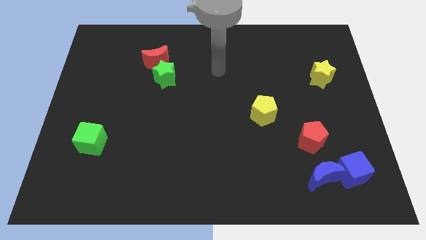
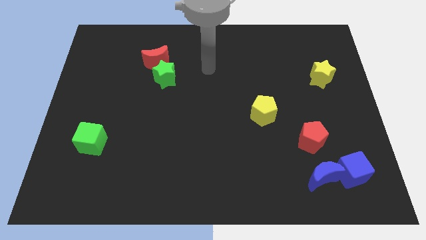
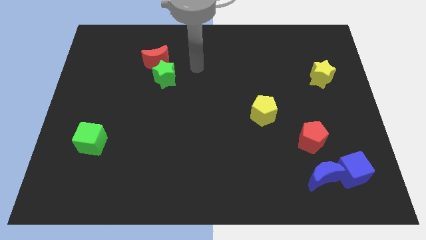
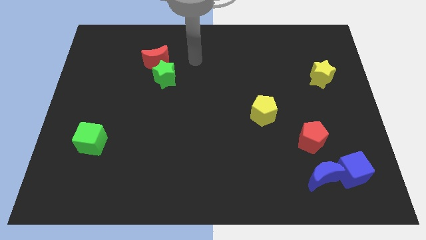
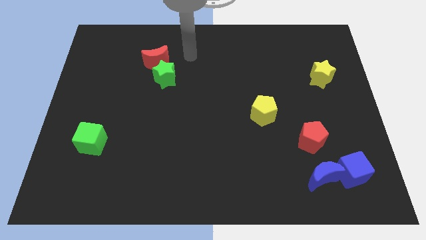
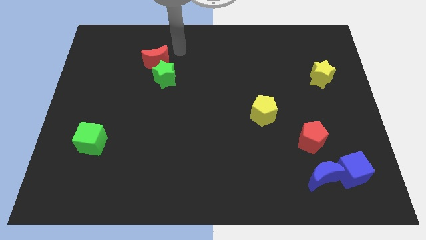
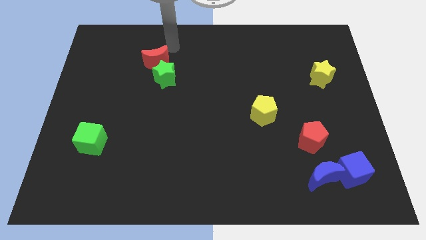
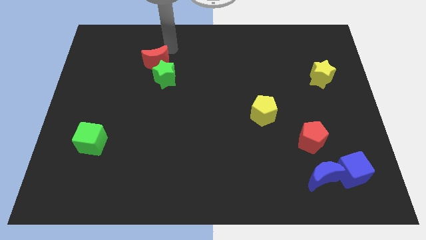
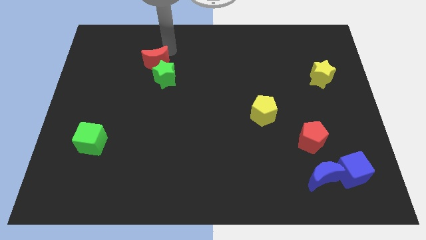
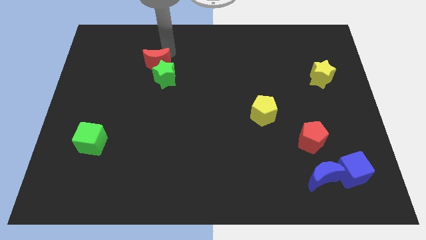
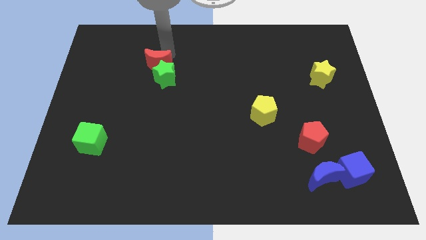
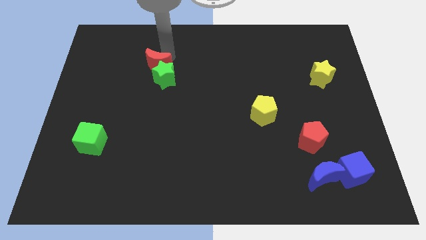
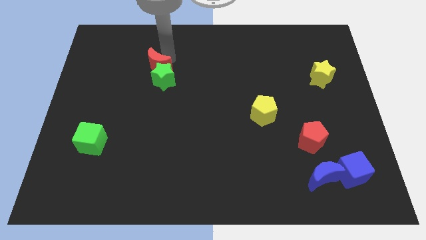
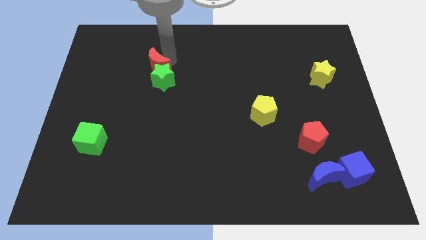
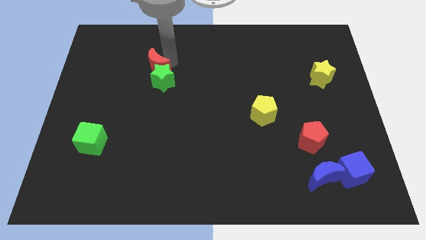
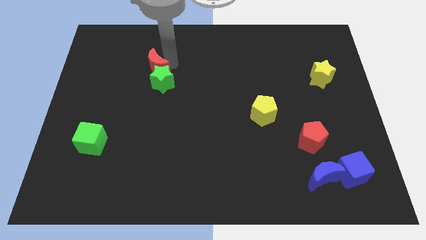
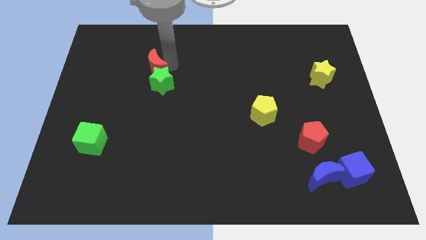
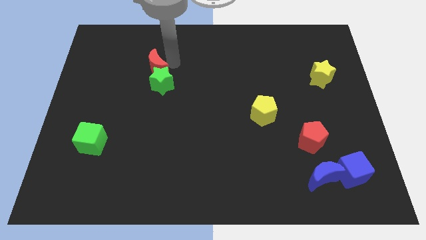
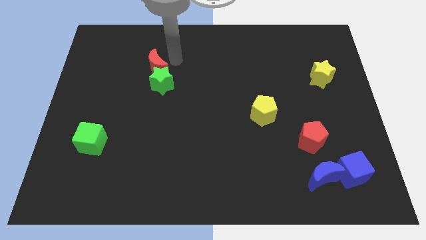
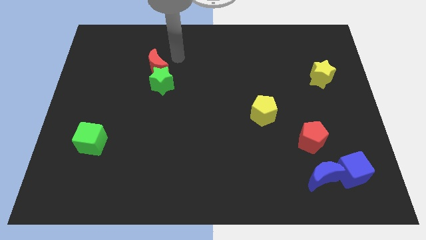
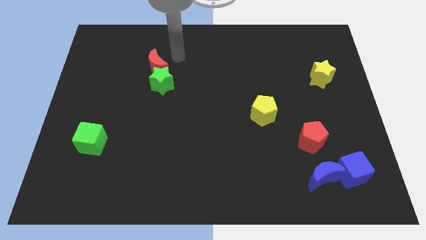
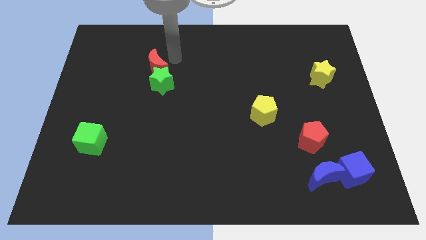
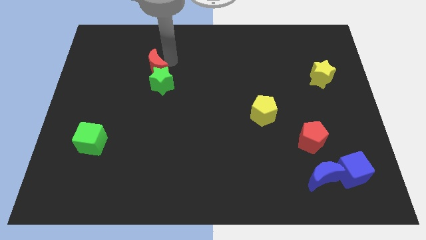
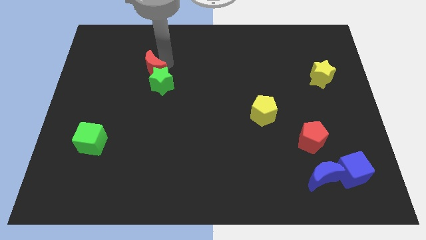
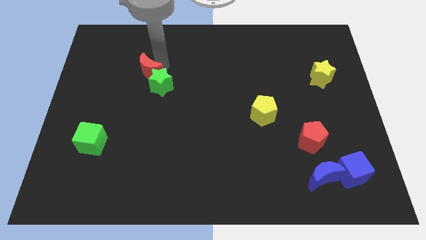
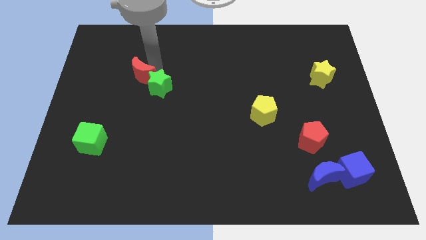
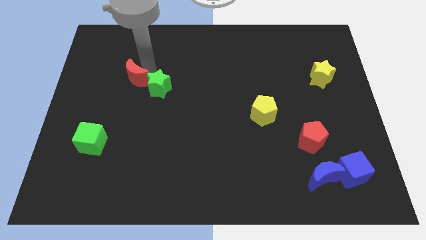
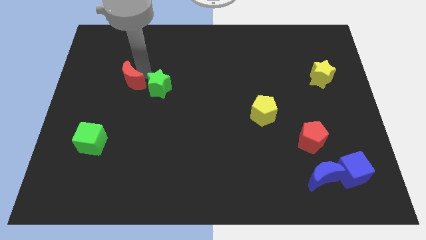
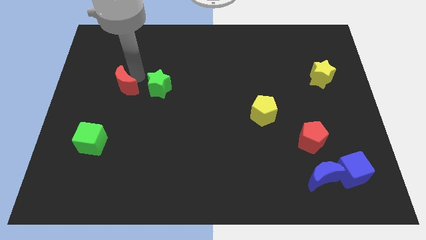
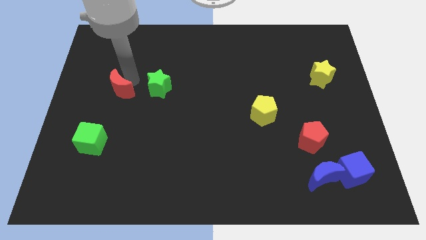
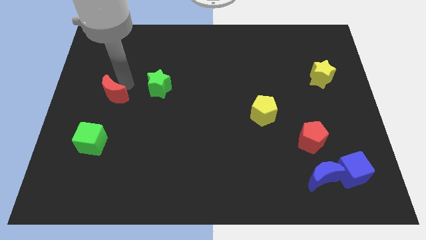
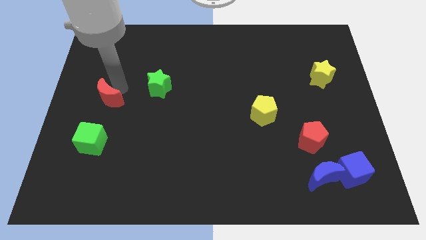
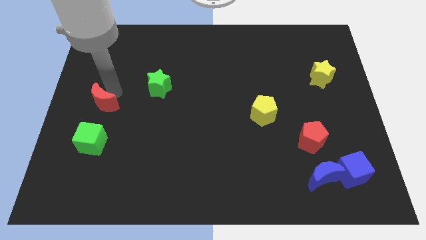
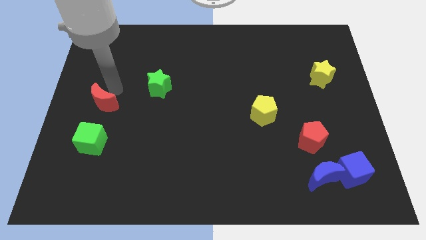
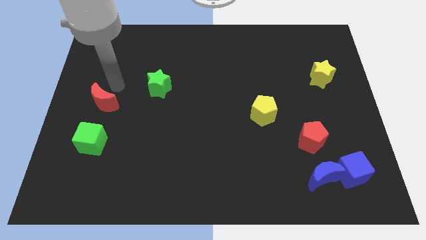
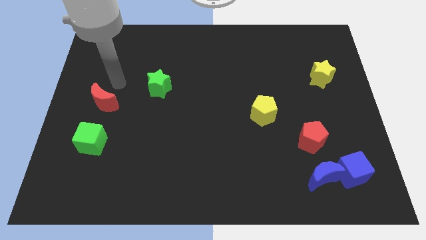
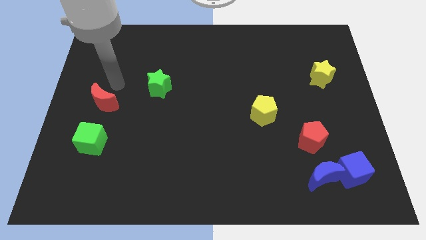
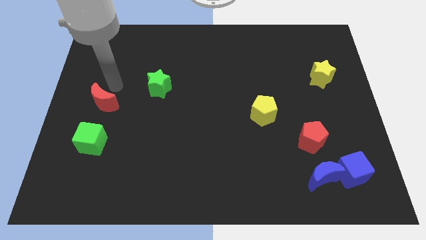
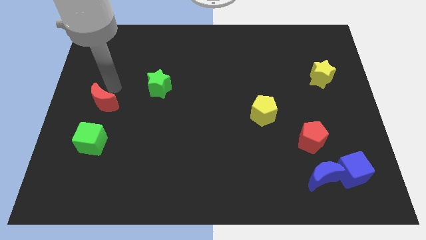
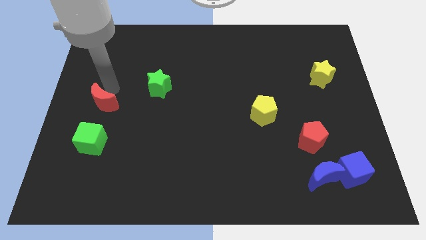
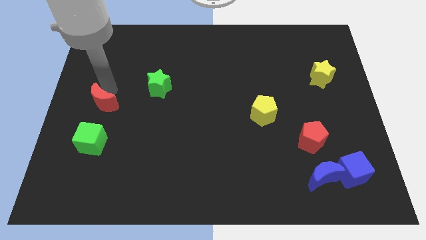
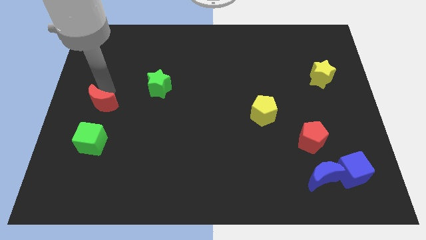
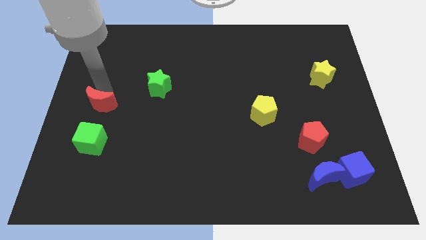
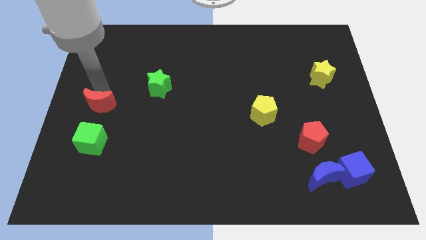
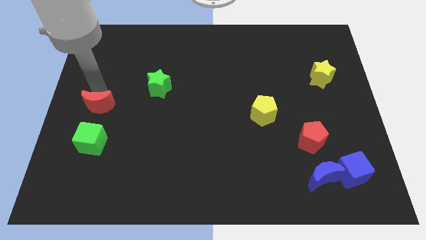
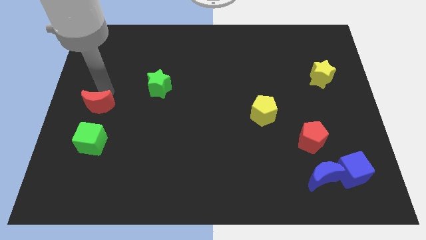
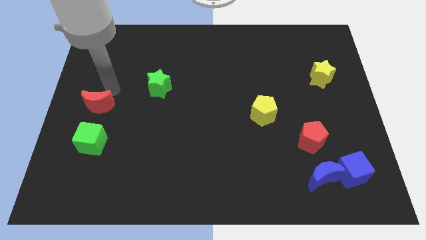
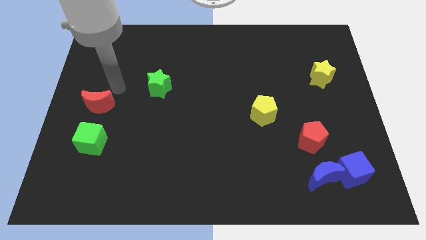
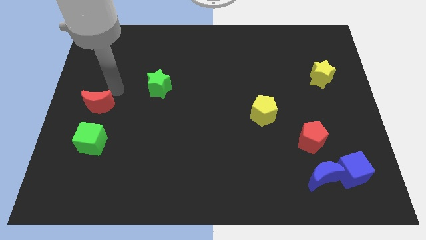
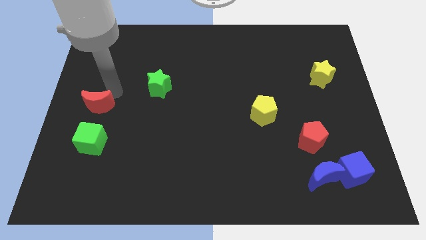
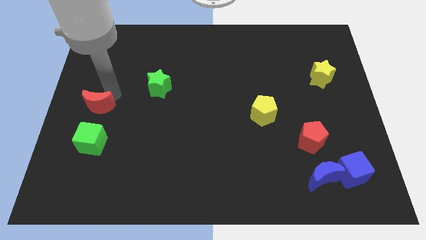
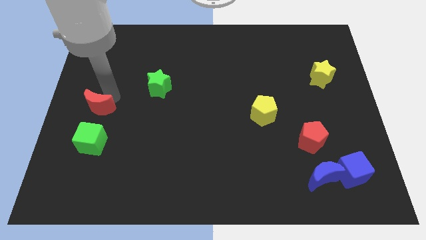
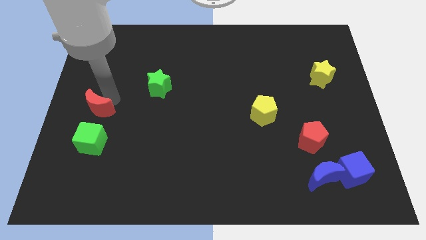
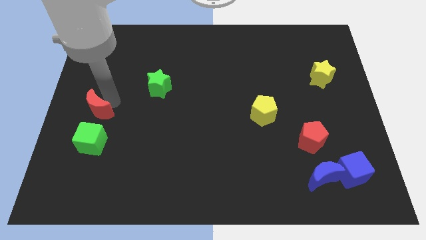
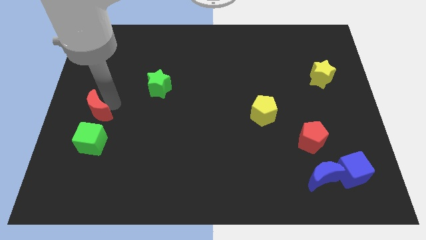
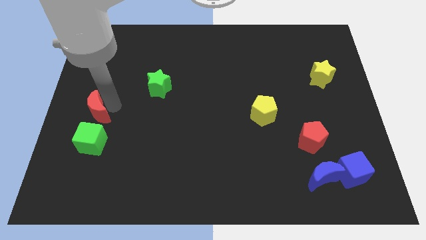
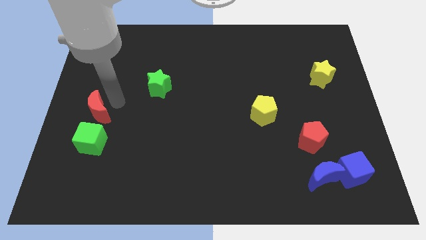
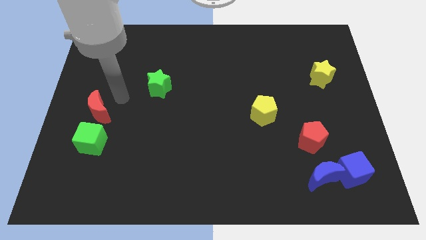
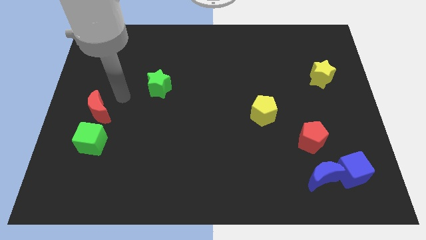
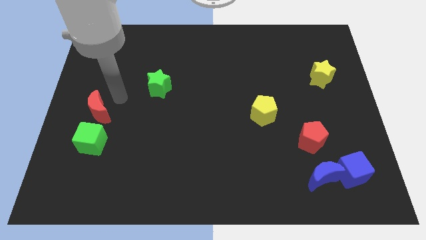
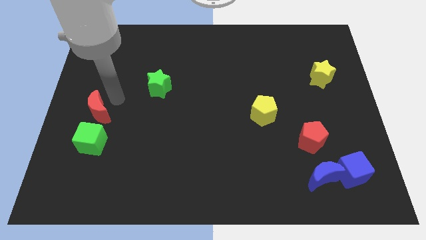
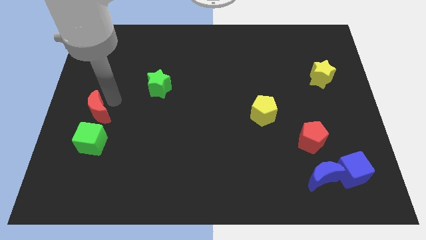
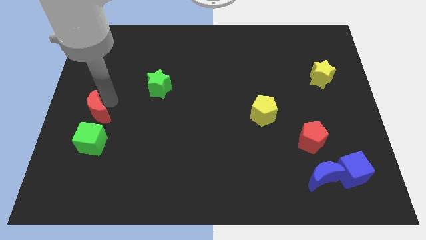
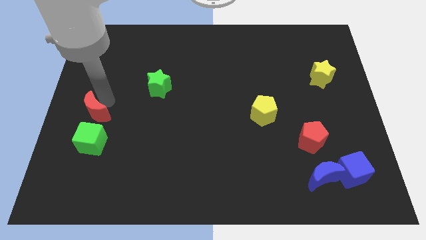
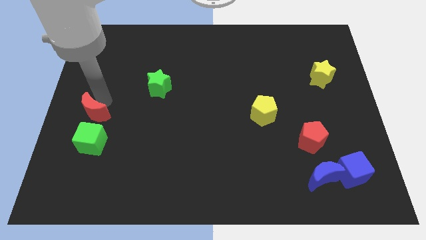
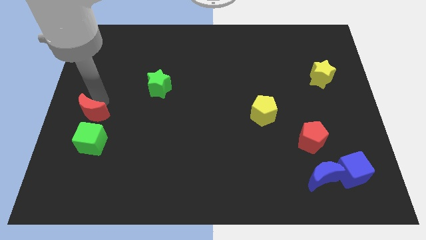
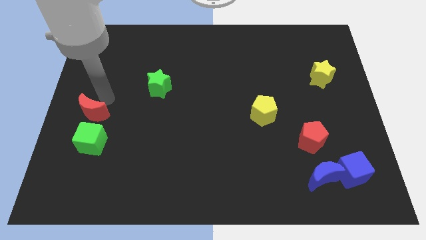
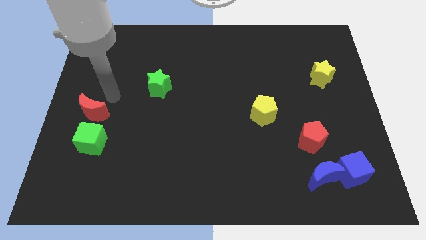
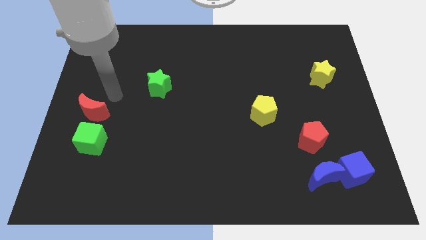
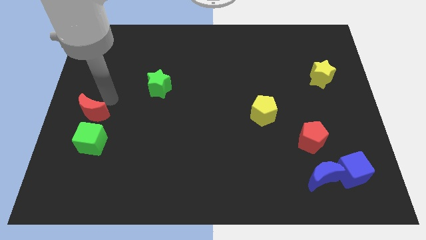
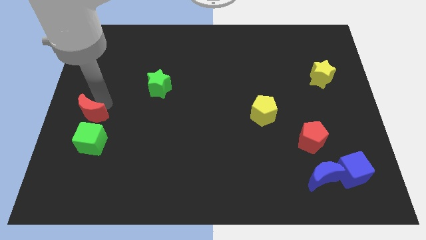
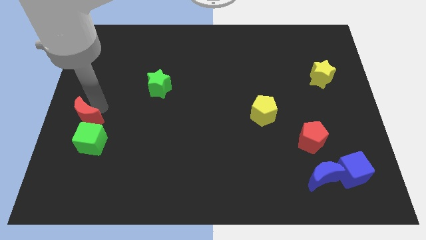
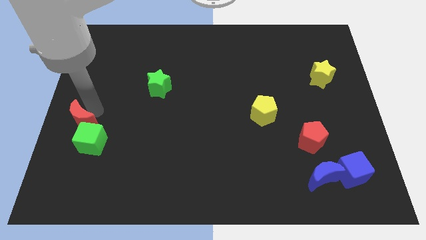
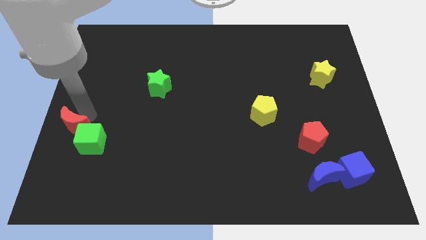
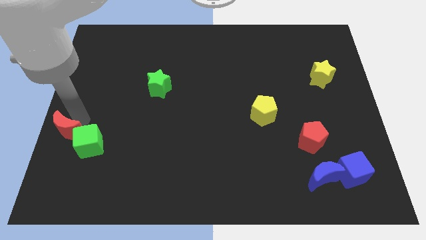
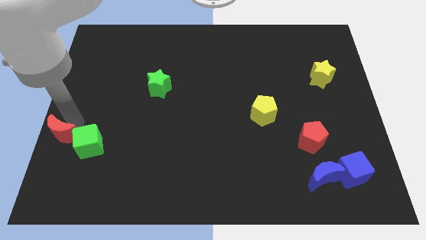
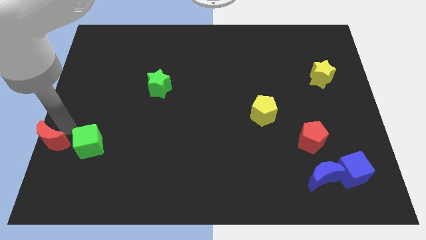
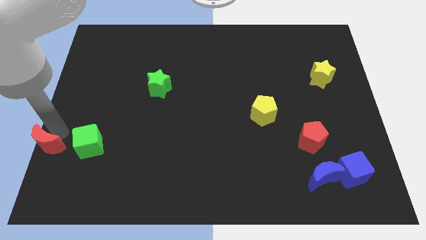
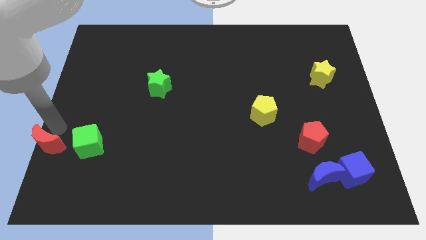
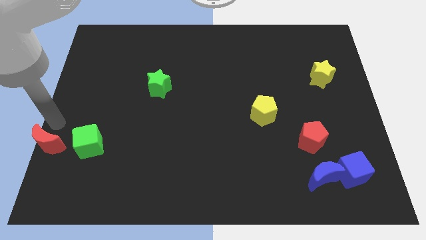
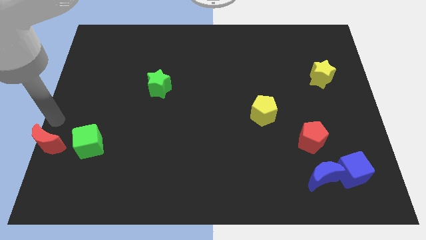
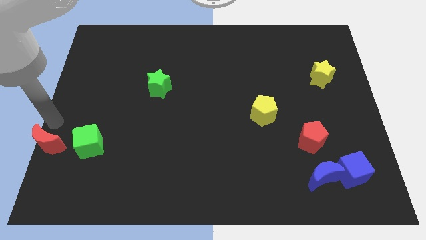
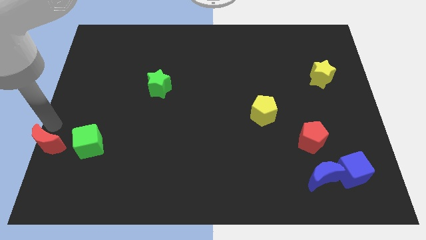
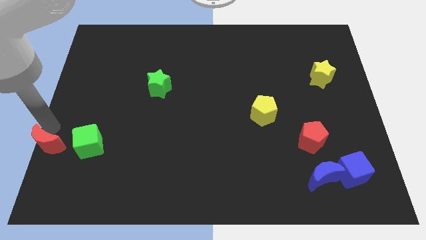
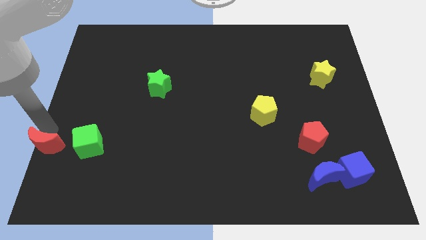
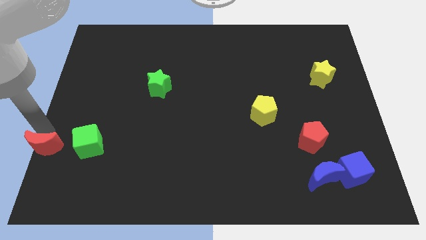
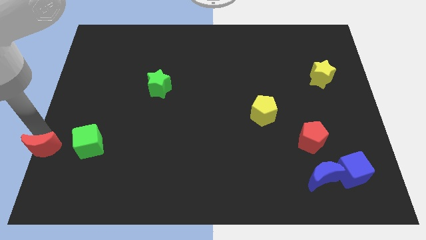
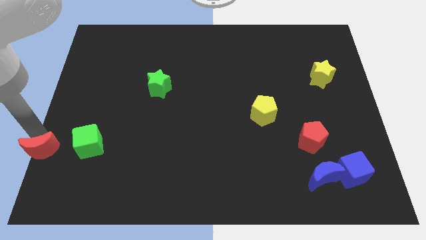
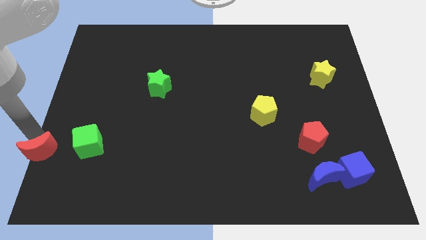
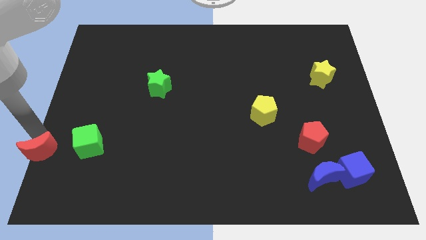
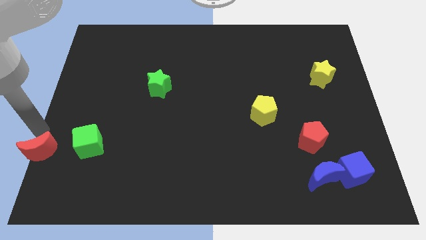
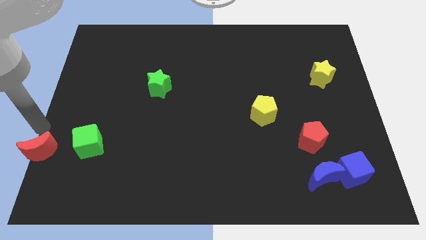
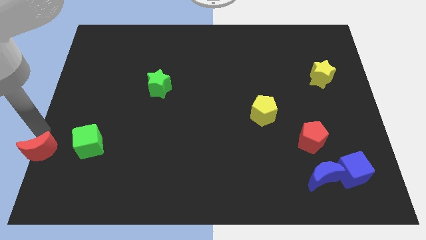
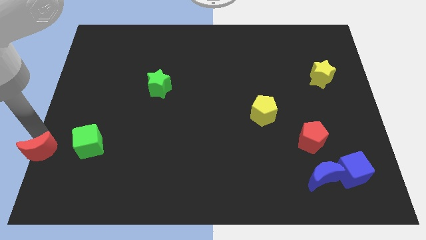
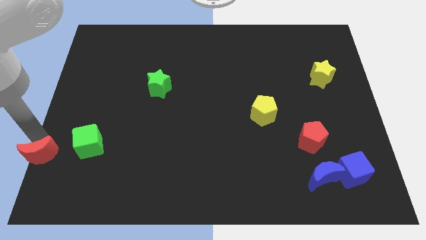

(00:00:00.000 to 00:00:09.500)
move the red moon to the bottom left of the board
